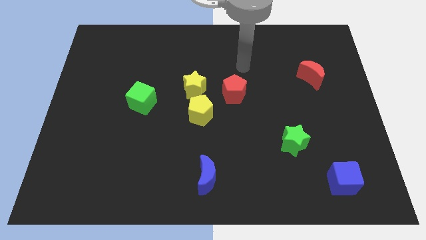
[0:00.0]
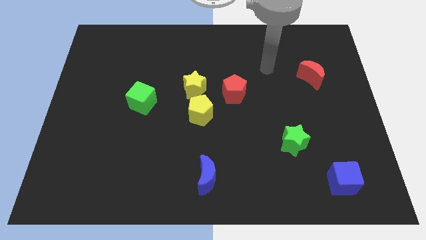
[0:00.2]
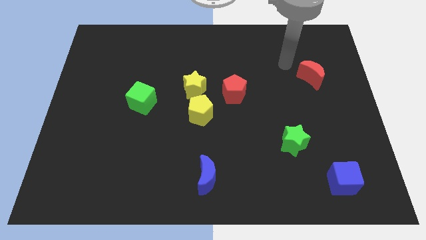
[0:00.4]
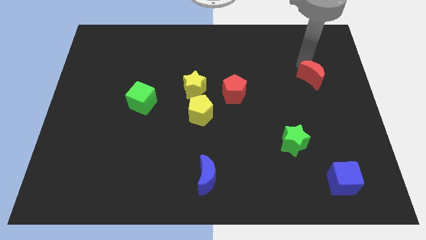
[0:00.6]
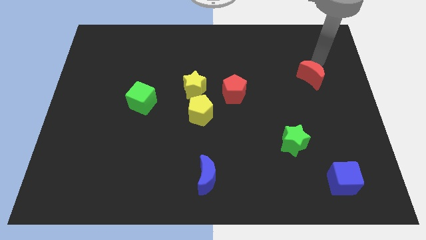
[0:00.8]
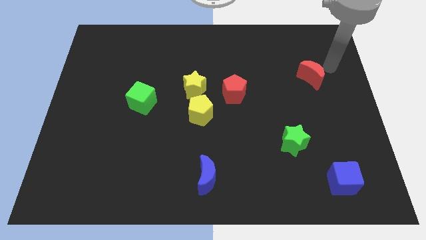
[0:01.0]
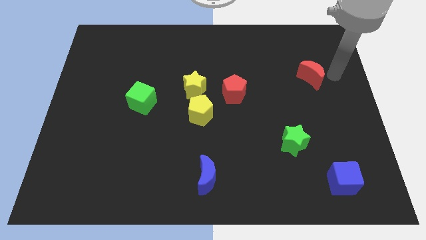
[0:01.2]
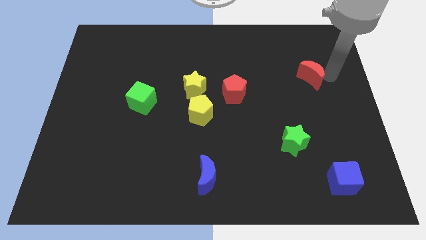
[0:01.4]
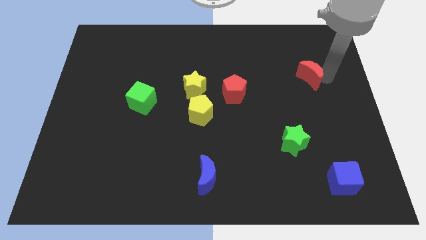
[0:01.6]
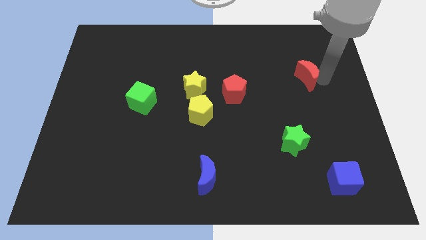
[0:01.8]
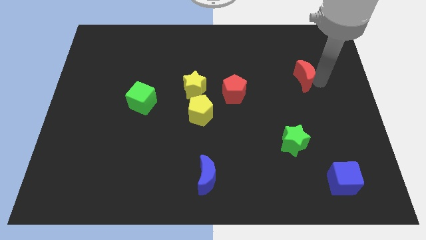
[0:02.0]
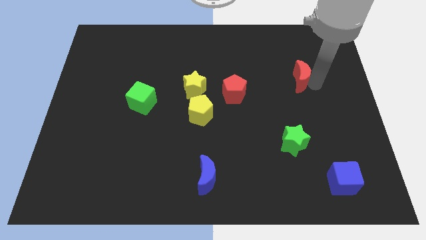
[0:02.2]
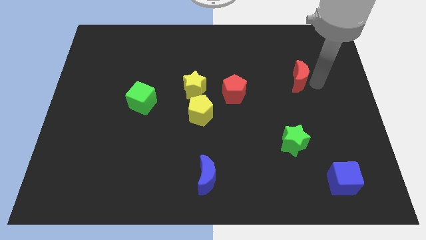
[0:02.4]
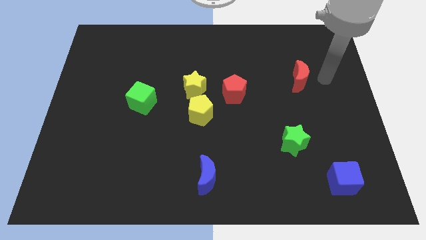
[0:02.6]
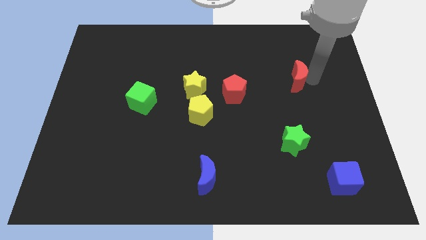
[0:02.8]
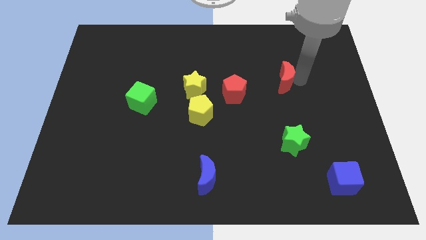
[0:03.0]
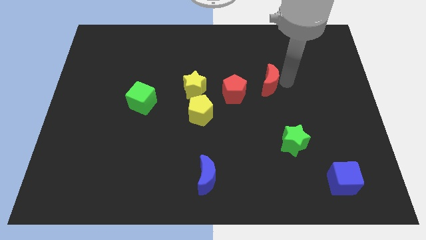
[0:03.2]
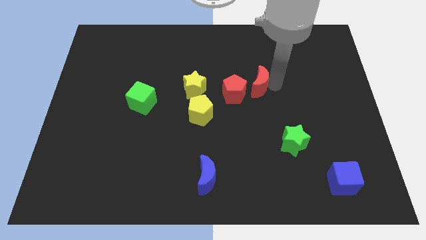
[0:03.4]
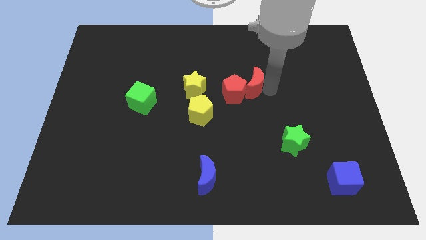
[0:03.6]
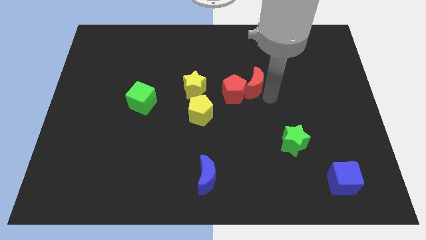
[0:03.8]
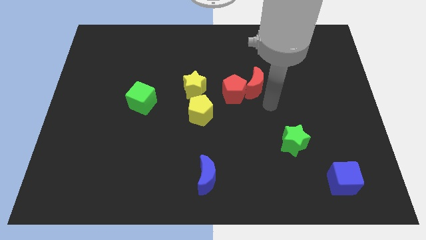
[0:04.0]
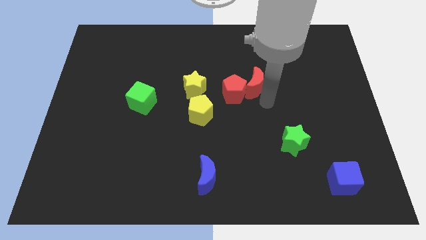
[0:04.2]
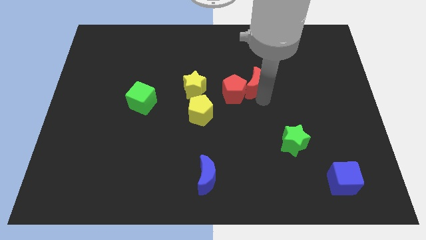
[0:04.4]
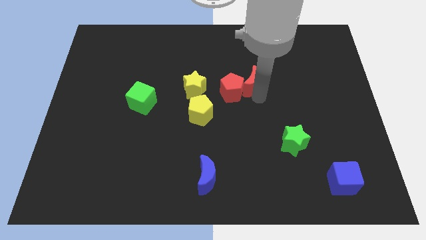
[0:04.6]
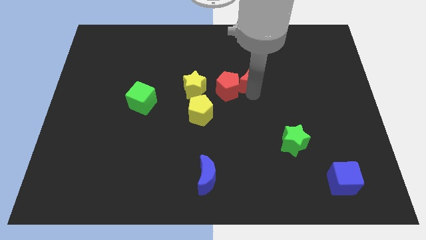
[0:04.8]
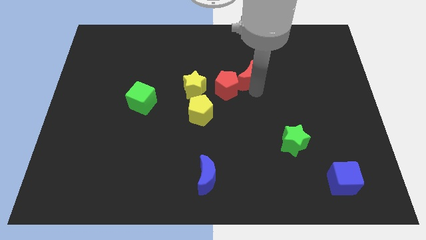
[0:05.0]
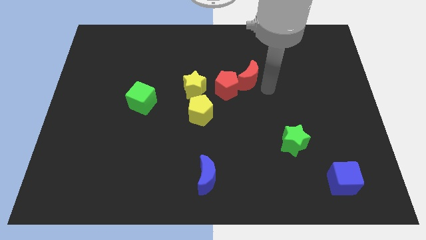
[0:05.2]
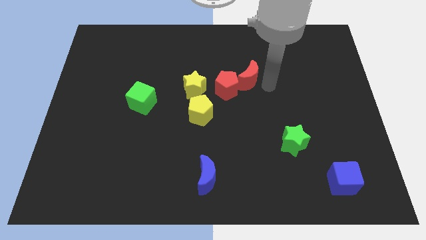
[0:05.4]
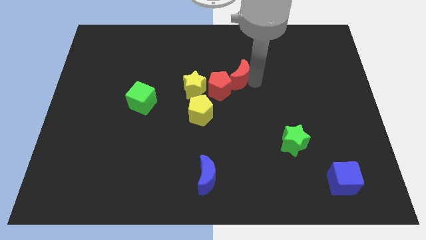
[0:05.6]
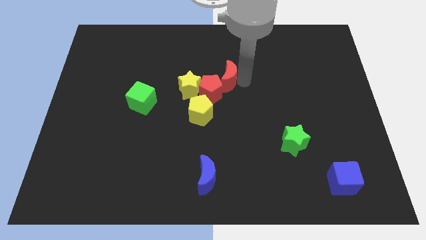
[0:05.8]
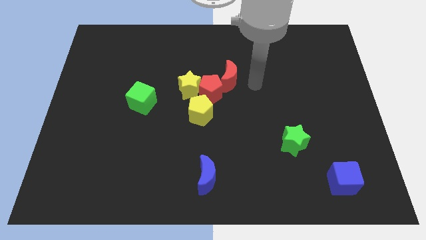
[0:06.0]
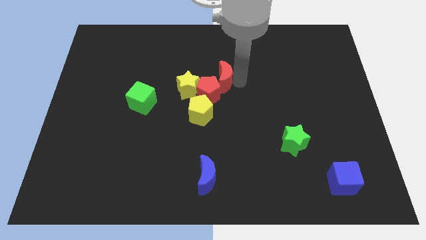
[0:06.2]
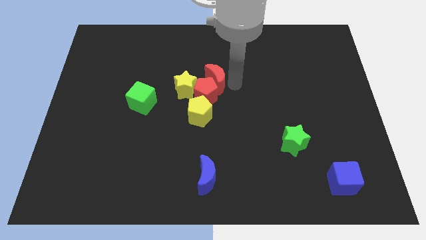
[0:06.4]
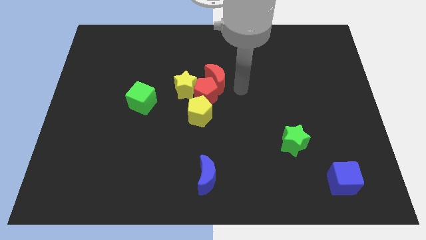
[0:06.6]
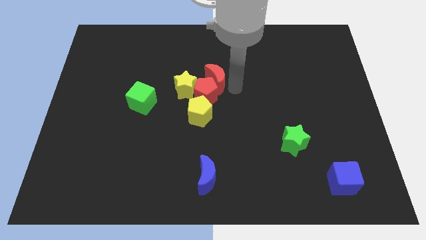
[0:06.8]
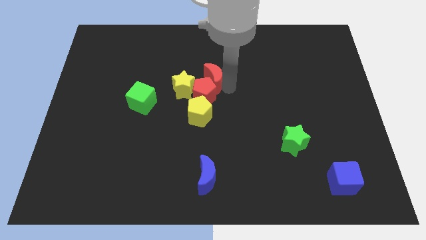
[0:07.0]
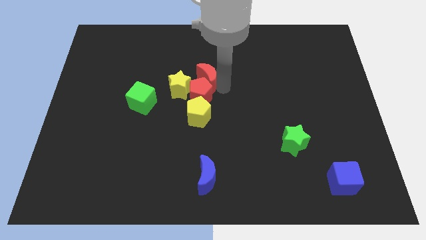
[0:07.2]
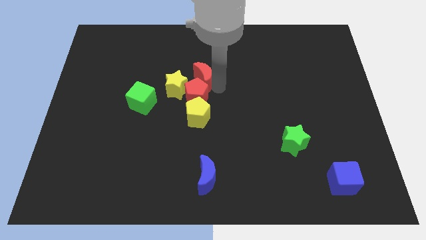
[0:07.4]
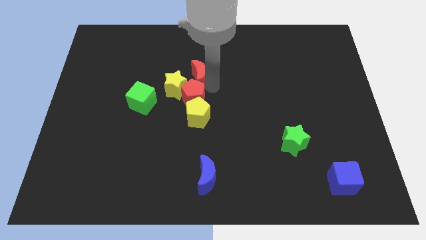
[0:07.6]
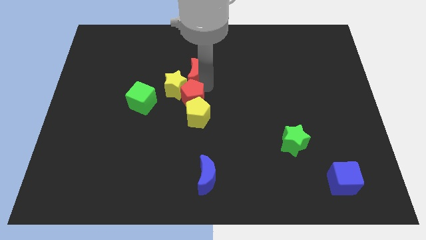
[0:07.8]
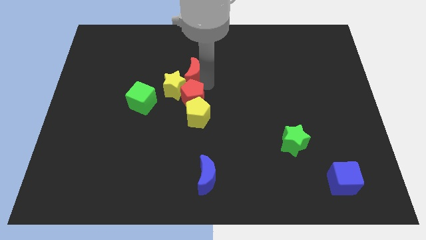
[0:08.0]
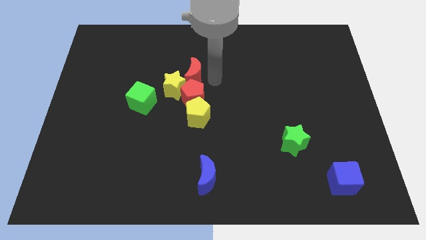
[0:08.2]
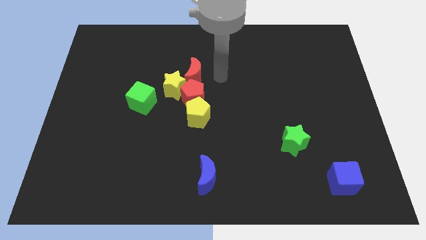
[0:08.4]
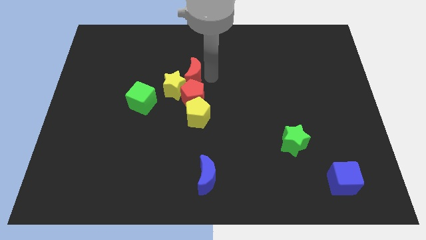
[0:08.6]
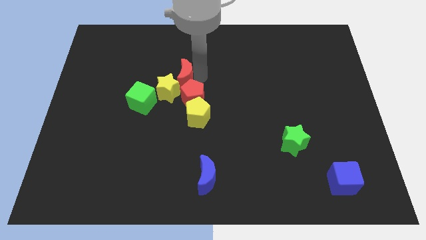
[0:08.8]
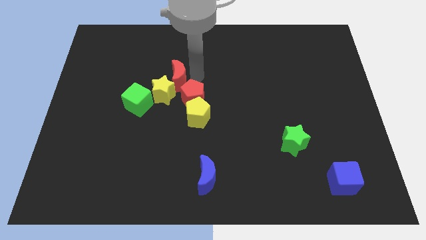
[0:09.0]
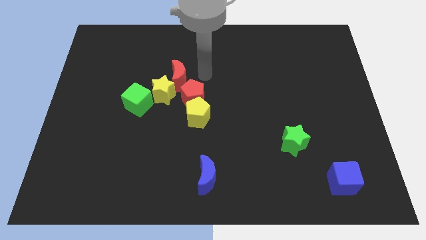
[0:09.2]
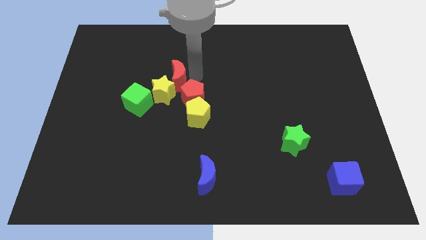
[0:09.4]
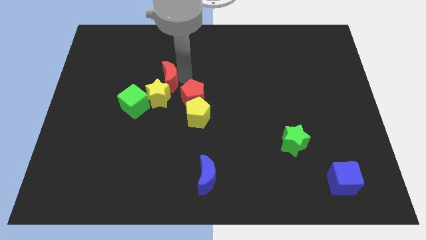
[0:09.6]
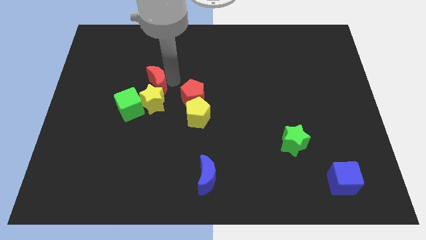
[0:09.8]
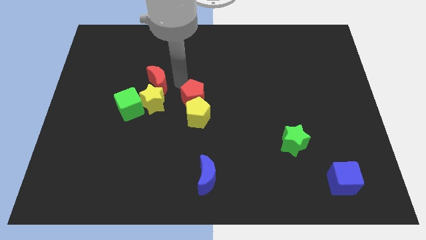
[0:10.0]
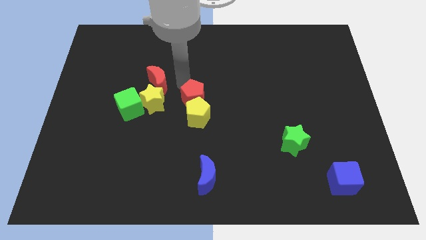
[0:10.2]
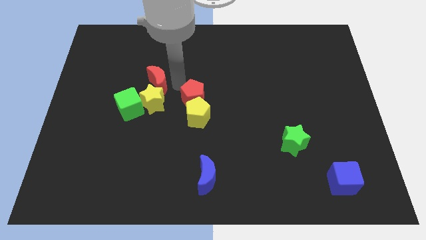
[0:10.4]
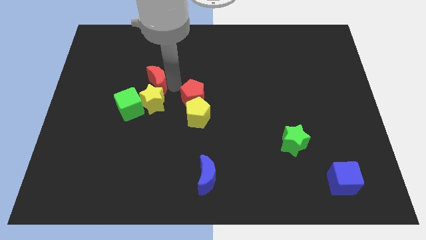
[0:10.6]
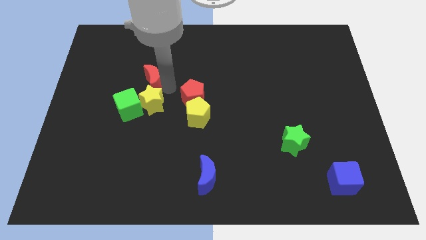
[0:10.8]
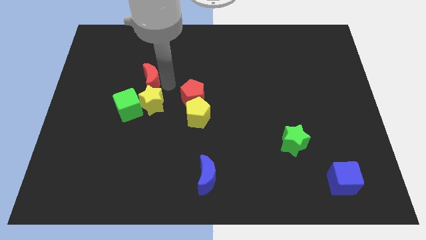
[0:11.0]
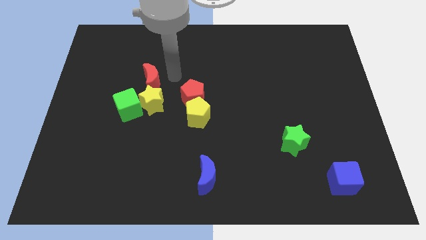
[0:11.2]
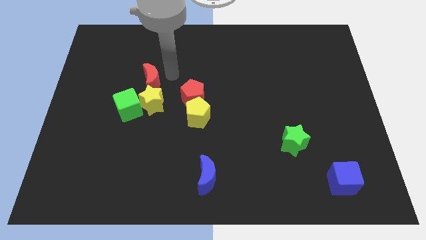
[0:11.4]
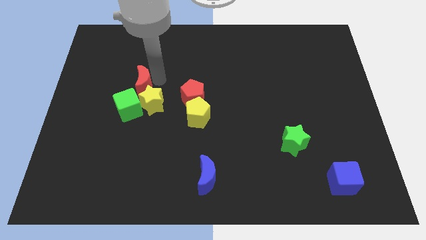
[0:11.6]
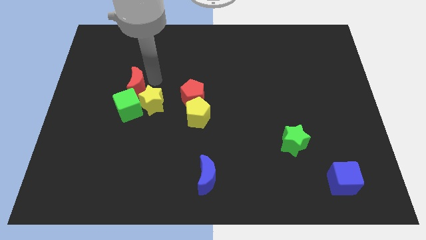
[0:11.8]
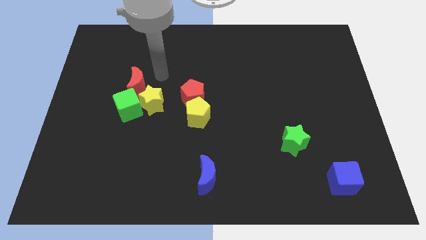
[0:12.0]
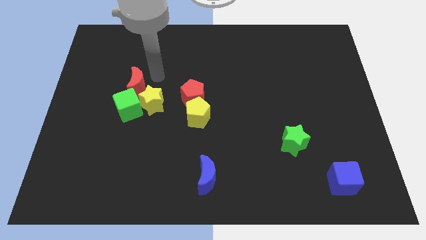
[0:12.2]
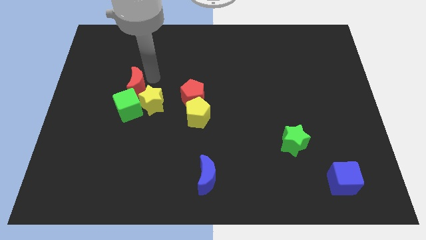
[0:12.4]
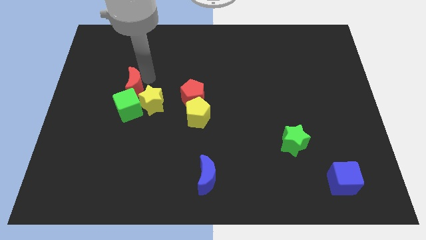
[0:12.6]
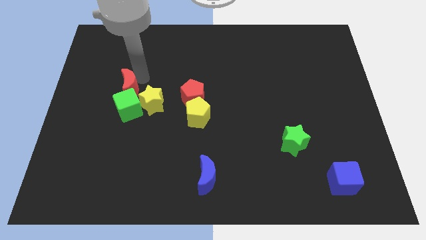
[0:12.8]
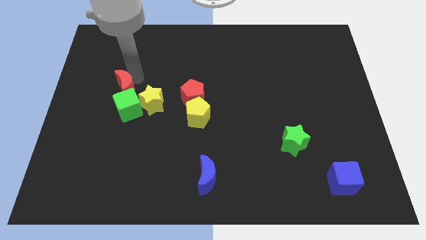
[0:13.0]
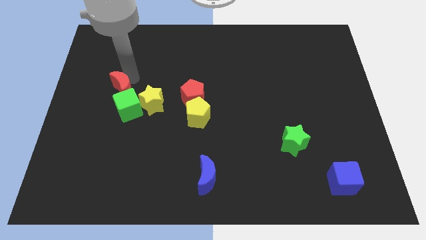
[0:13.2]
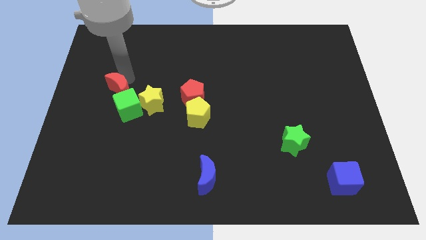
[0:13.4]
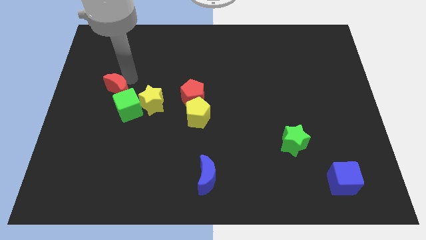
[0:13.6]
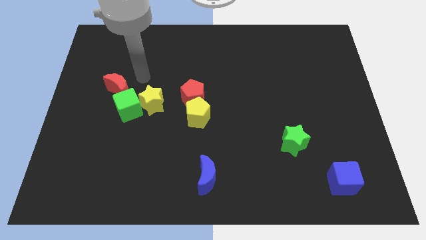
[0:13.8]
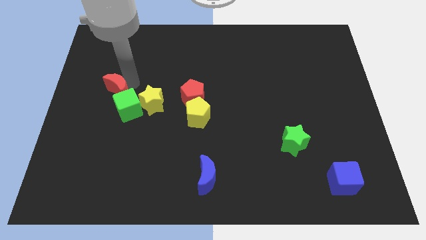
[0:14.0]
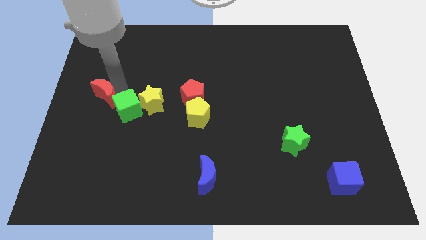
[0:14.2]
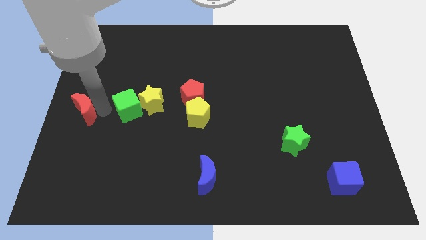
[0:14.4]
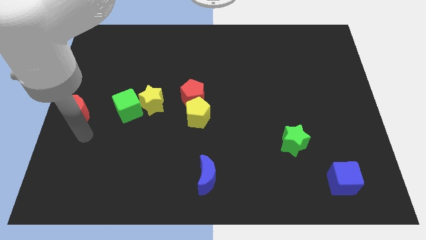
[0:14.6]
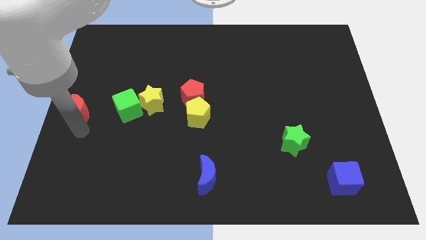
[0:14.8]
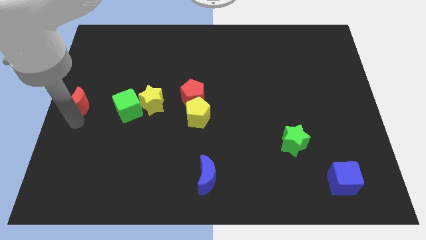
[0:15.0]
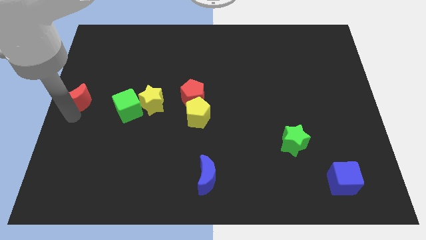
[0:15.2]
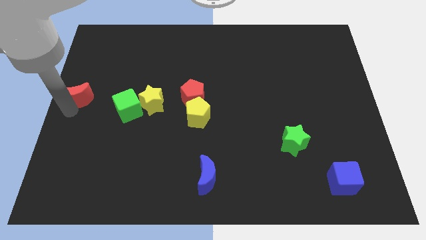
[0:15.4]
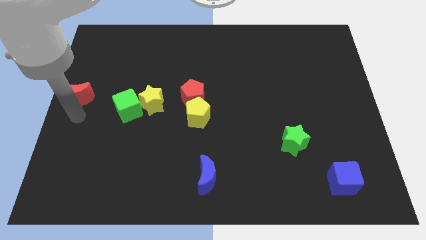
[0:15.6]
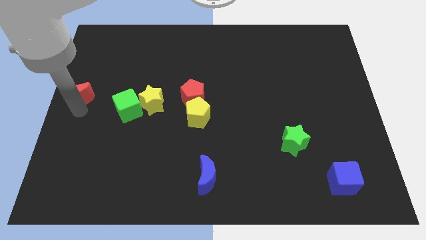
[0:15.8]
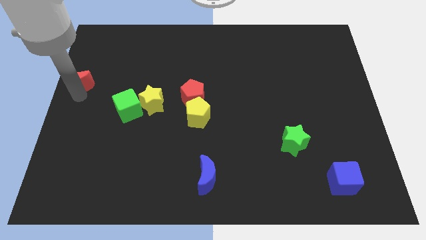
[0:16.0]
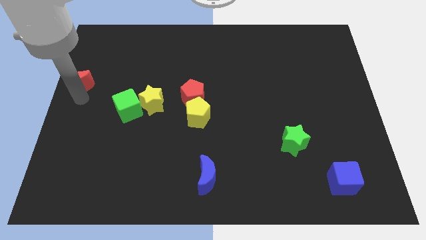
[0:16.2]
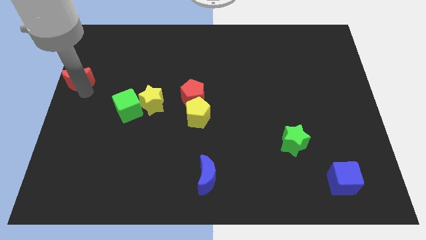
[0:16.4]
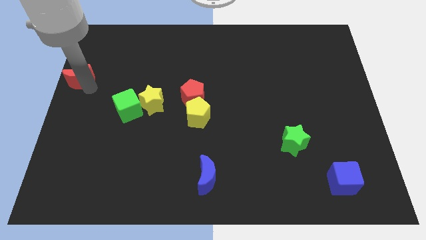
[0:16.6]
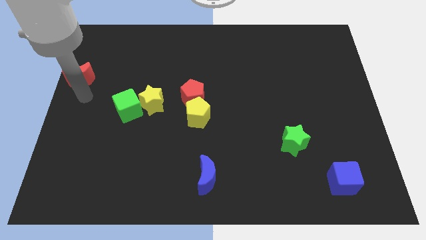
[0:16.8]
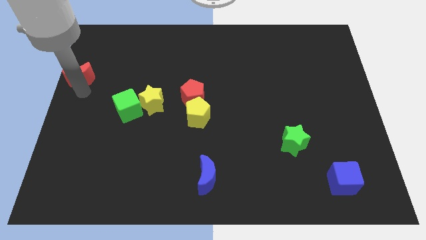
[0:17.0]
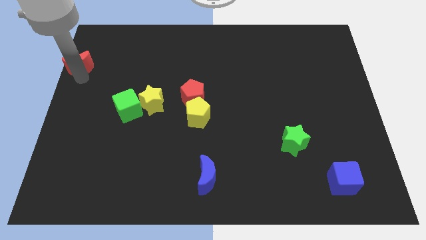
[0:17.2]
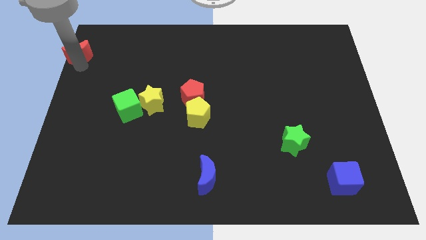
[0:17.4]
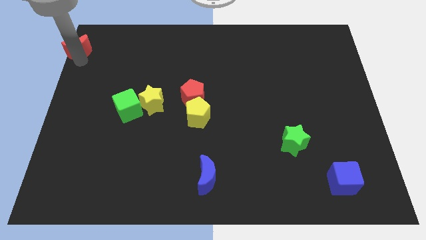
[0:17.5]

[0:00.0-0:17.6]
push the red moon to the top left corner
